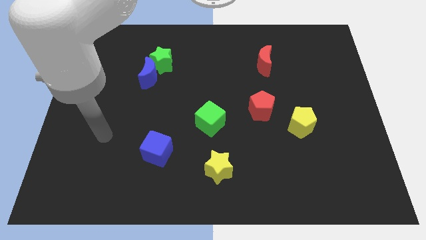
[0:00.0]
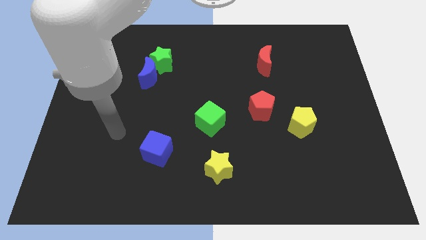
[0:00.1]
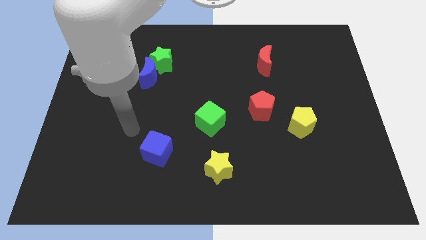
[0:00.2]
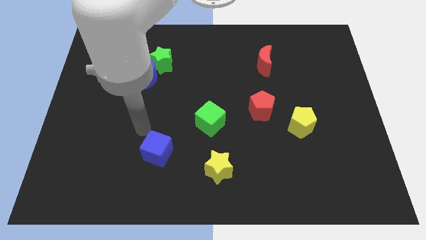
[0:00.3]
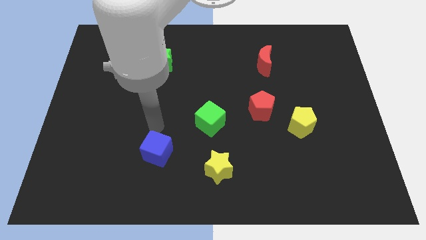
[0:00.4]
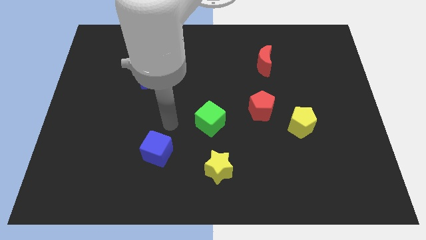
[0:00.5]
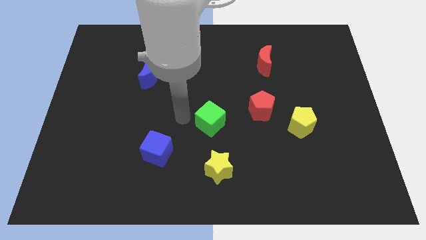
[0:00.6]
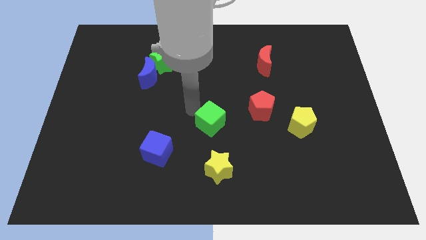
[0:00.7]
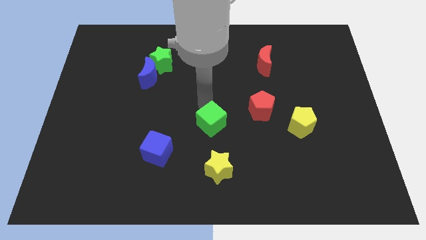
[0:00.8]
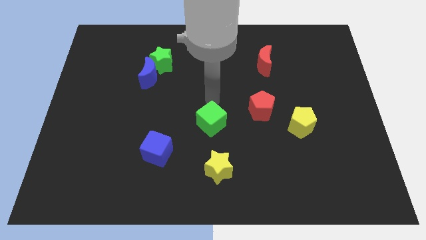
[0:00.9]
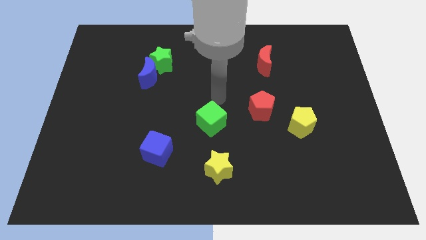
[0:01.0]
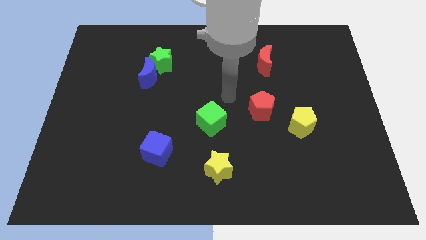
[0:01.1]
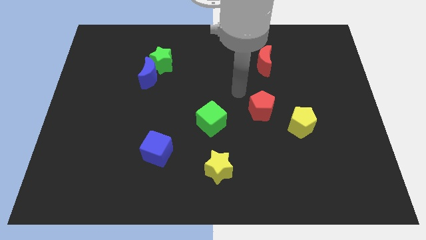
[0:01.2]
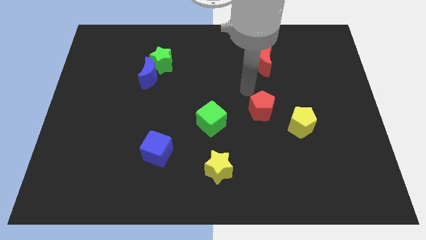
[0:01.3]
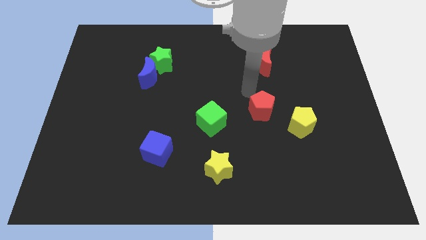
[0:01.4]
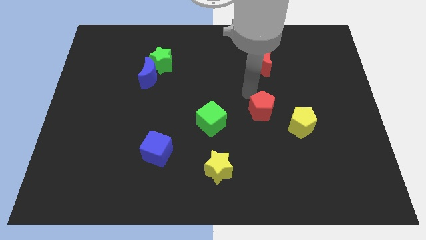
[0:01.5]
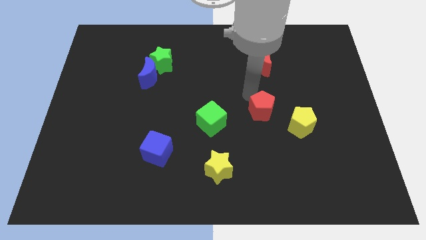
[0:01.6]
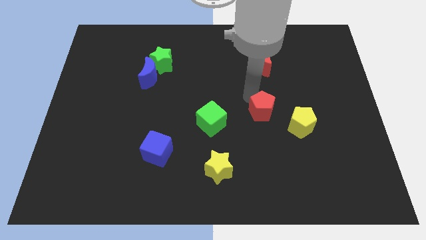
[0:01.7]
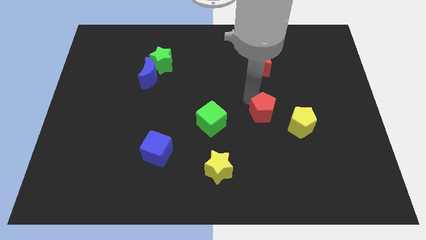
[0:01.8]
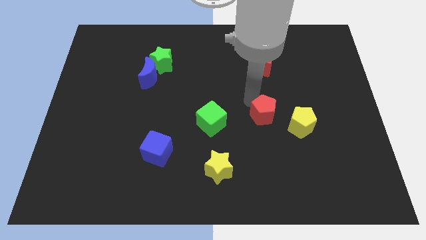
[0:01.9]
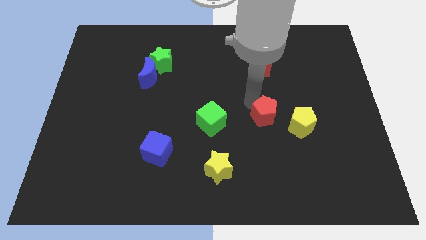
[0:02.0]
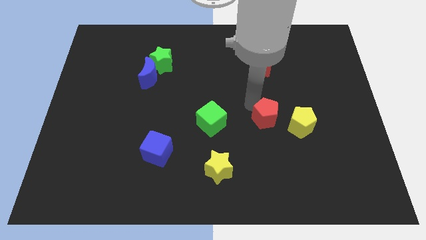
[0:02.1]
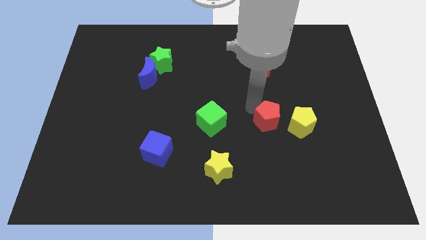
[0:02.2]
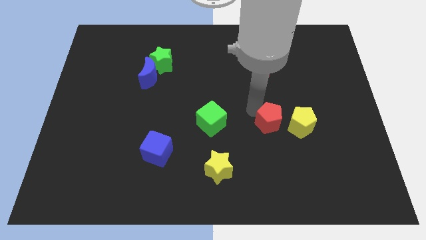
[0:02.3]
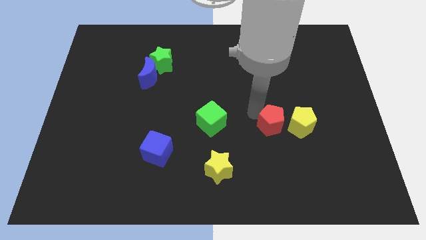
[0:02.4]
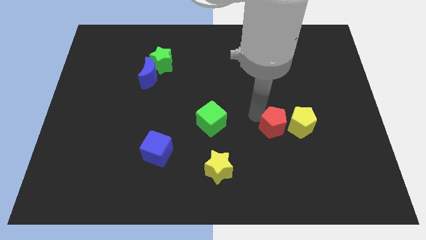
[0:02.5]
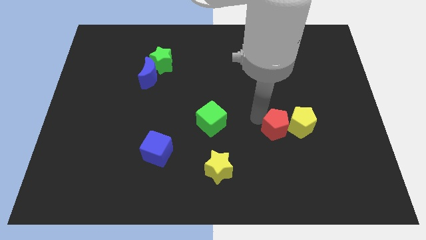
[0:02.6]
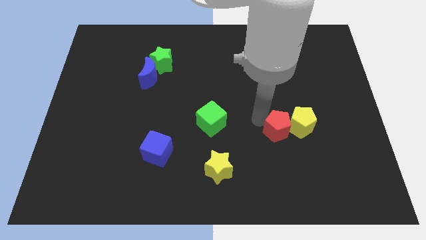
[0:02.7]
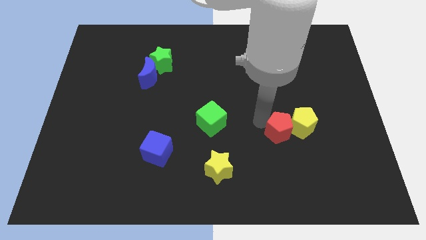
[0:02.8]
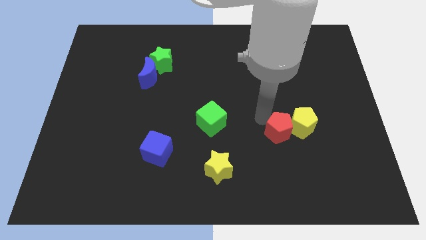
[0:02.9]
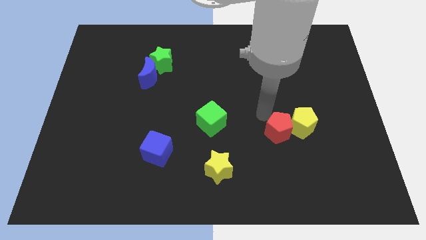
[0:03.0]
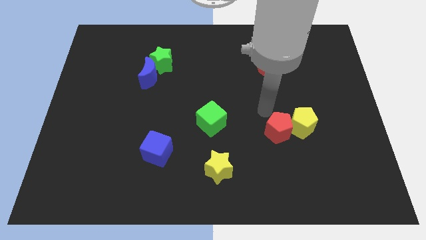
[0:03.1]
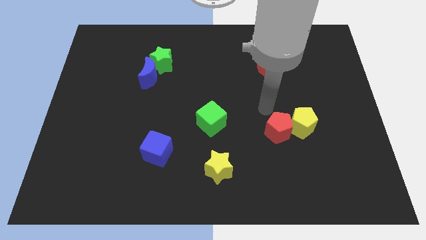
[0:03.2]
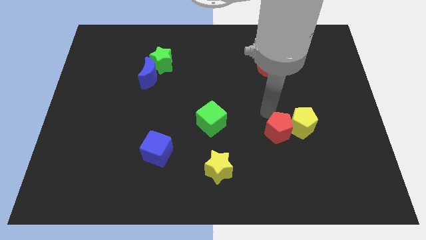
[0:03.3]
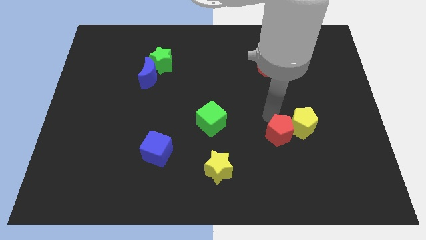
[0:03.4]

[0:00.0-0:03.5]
slide the red pentagon down and right diagonally a little

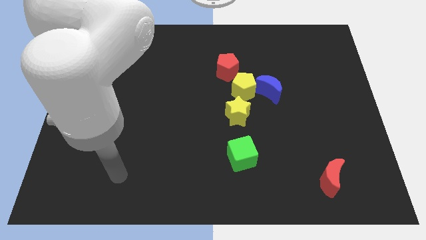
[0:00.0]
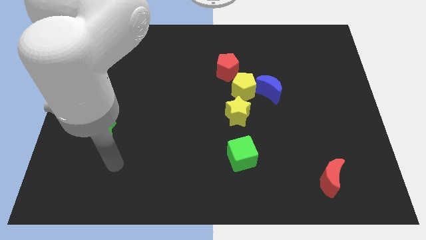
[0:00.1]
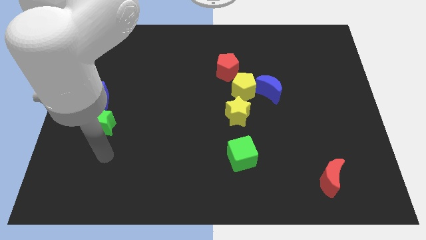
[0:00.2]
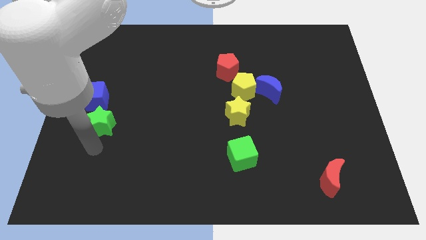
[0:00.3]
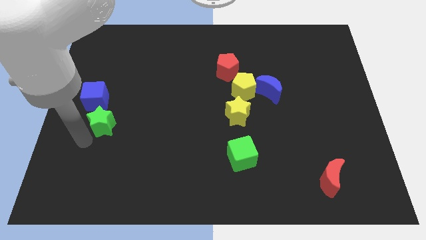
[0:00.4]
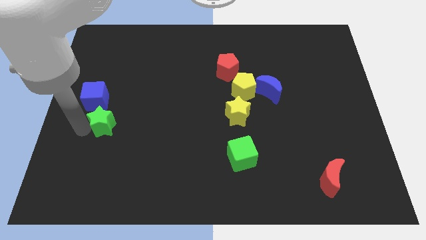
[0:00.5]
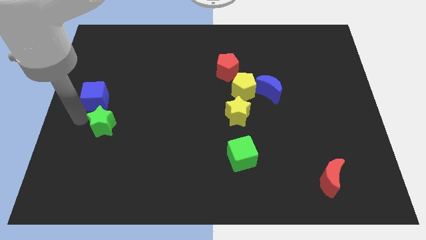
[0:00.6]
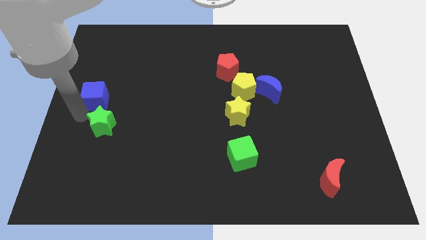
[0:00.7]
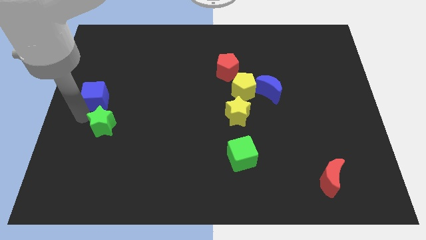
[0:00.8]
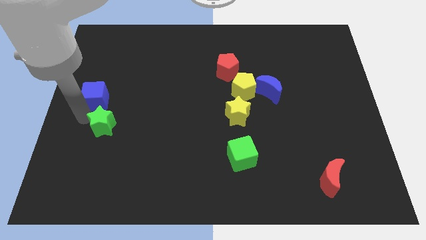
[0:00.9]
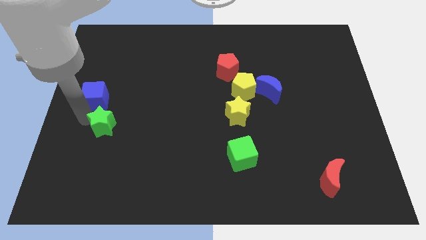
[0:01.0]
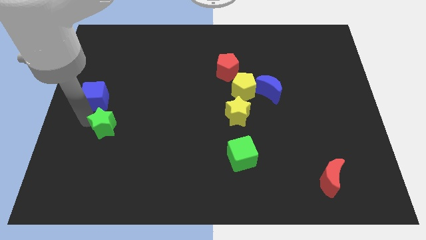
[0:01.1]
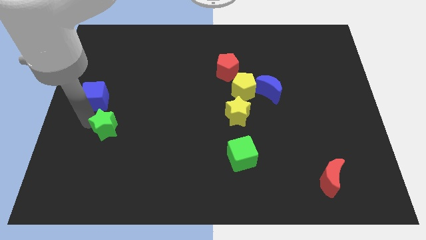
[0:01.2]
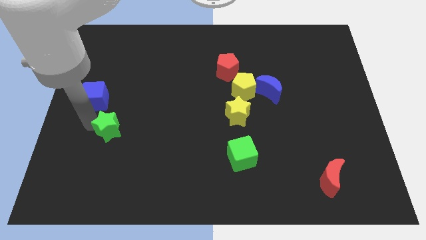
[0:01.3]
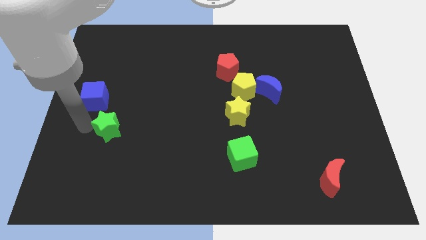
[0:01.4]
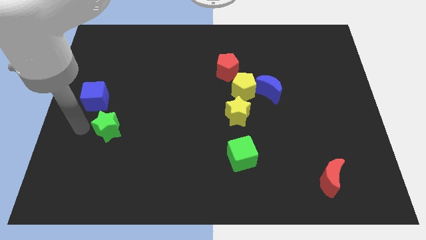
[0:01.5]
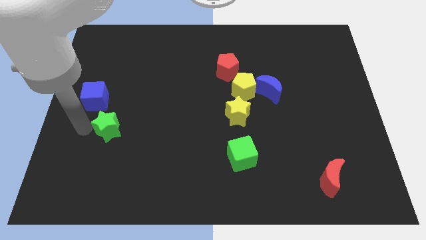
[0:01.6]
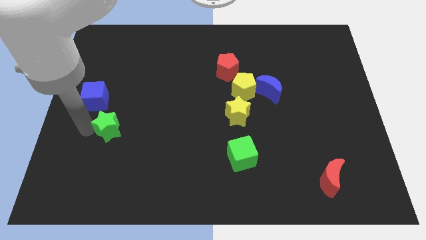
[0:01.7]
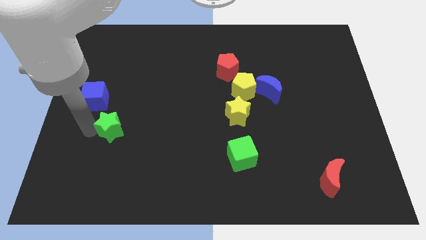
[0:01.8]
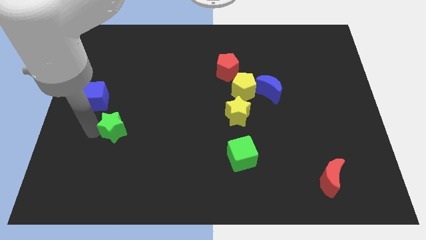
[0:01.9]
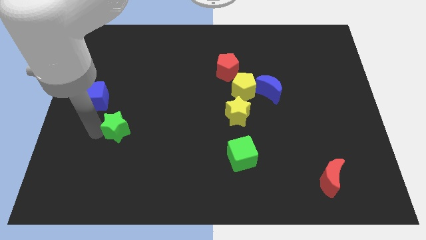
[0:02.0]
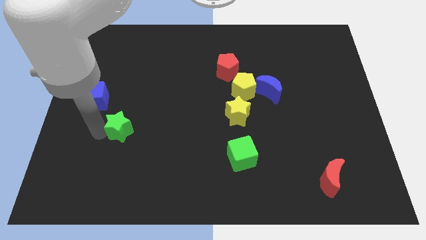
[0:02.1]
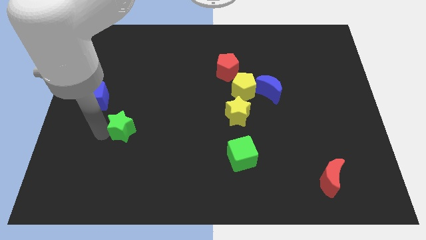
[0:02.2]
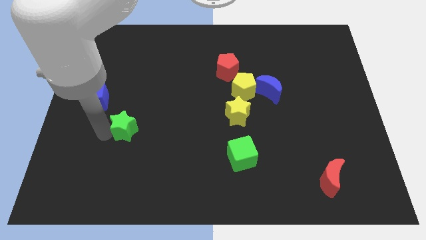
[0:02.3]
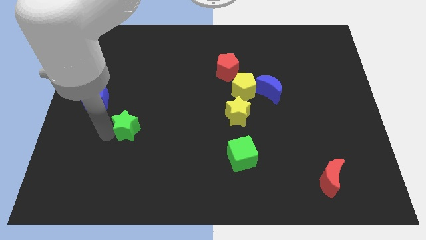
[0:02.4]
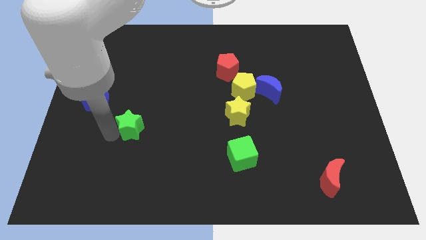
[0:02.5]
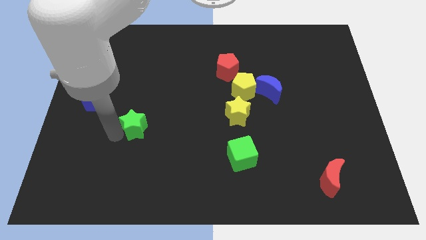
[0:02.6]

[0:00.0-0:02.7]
slightly move the green star to the right

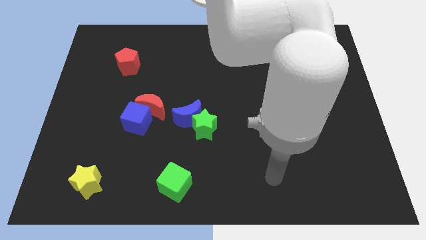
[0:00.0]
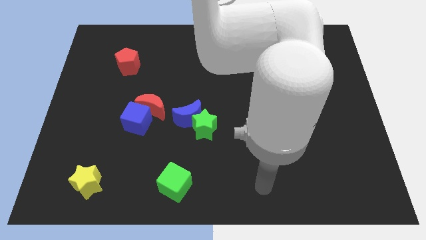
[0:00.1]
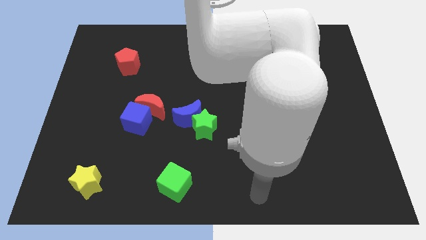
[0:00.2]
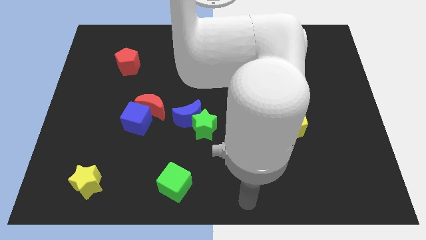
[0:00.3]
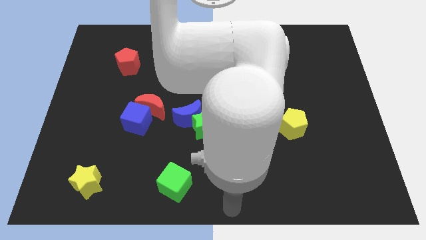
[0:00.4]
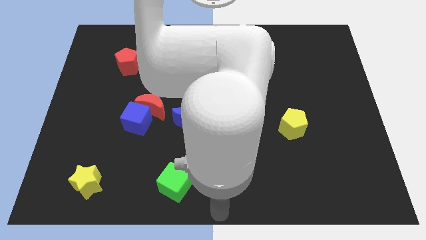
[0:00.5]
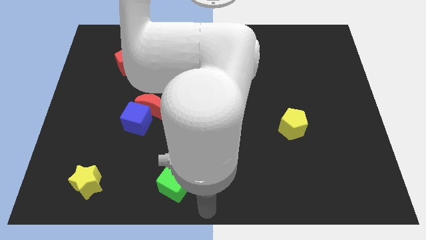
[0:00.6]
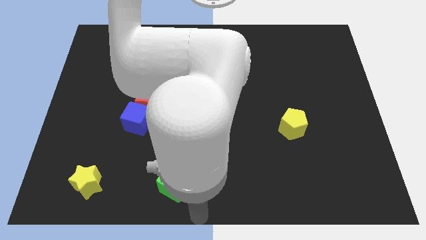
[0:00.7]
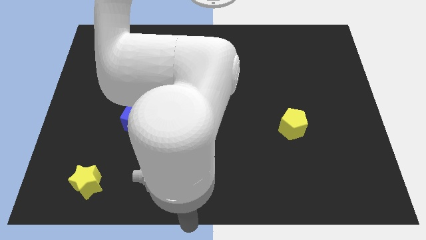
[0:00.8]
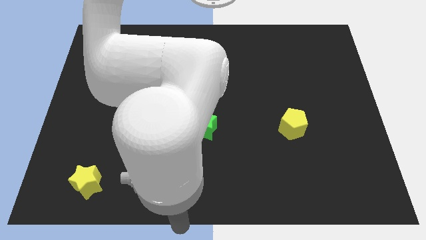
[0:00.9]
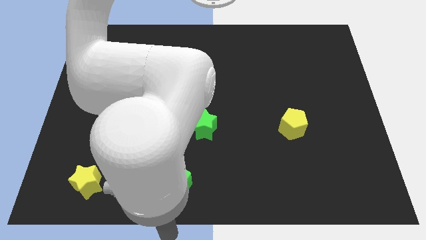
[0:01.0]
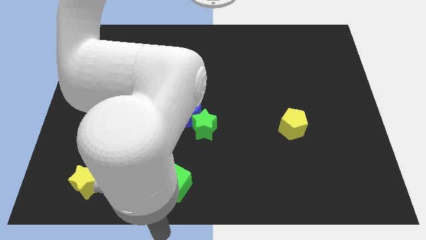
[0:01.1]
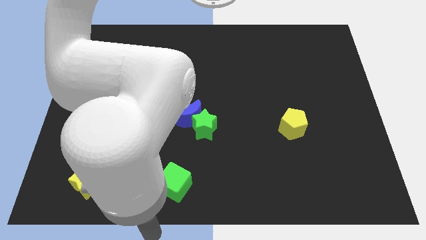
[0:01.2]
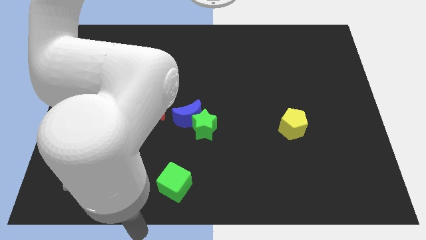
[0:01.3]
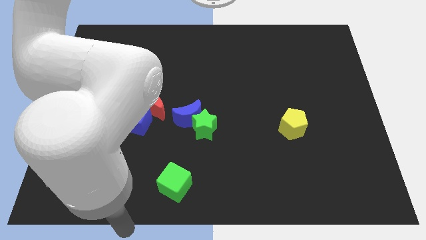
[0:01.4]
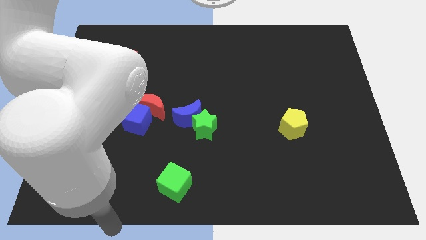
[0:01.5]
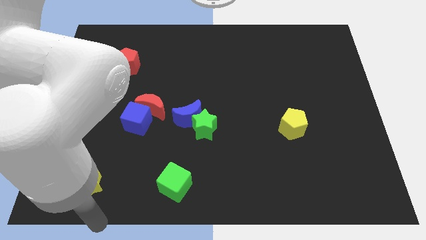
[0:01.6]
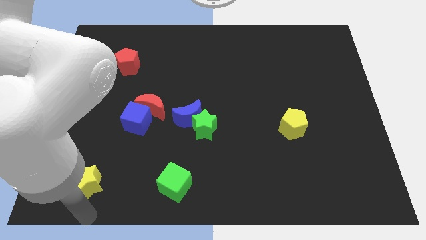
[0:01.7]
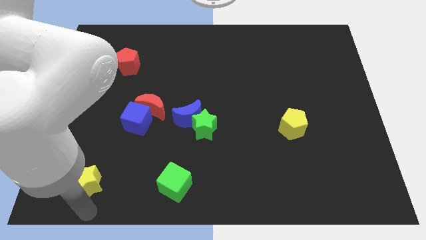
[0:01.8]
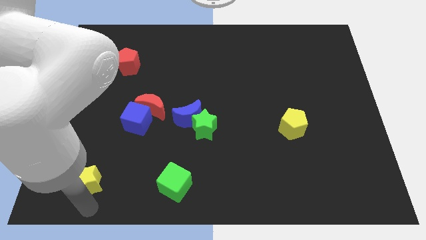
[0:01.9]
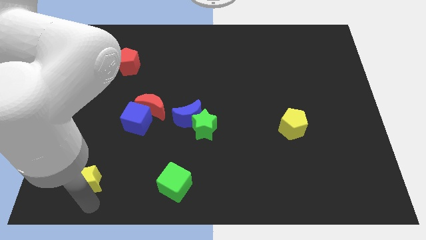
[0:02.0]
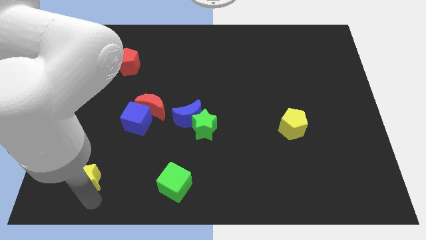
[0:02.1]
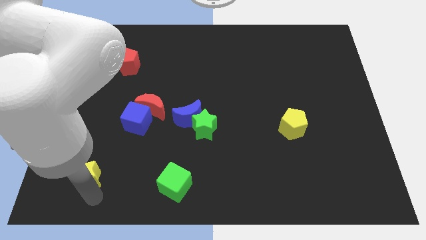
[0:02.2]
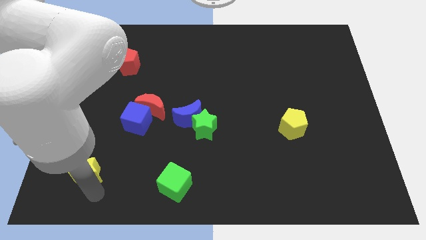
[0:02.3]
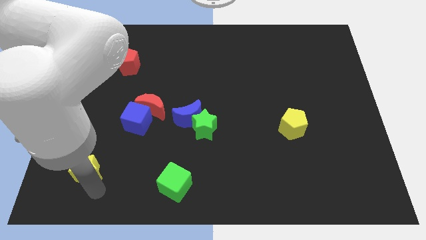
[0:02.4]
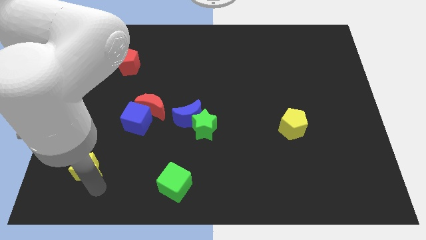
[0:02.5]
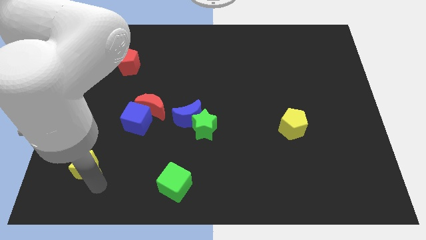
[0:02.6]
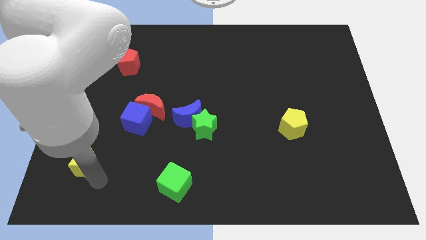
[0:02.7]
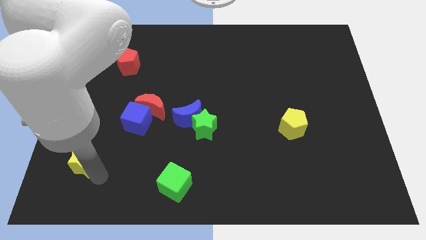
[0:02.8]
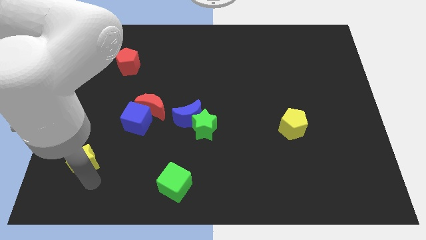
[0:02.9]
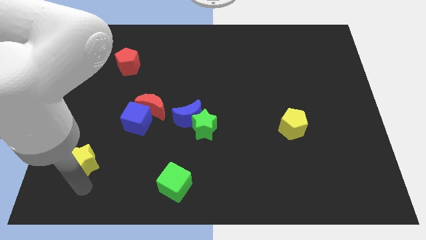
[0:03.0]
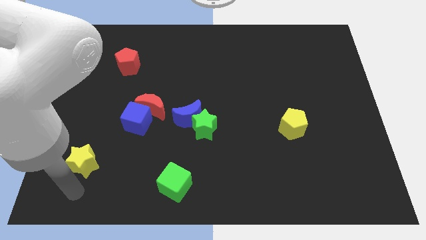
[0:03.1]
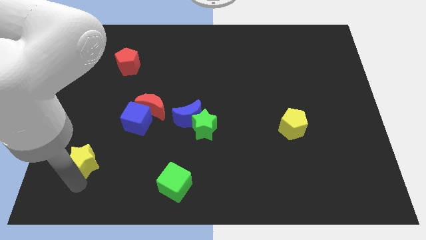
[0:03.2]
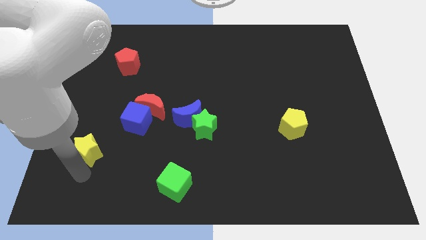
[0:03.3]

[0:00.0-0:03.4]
push the yellow star a little bit up
